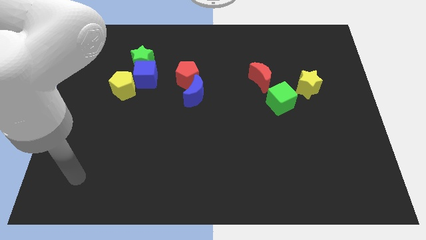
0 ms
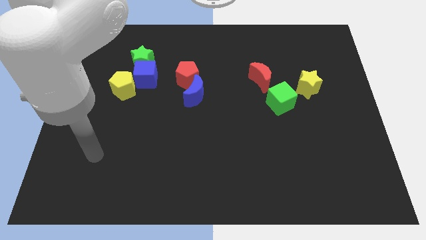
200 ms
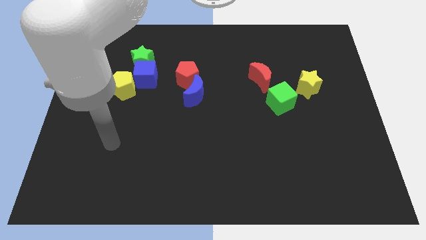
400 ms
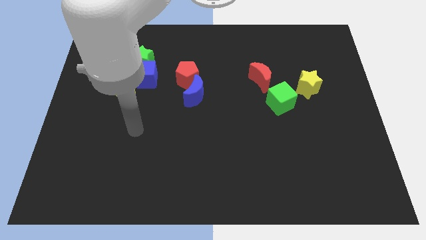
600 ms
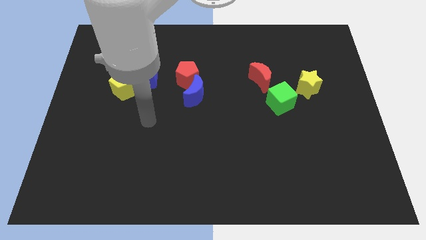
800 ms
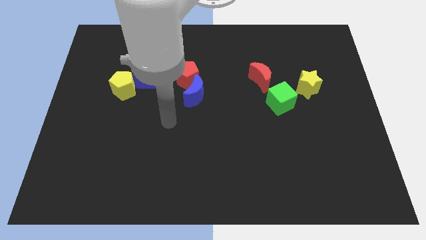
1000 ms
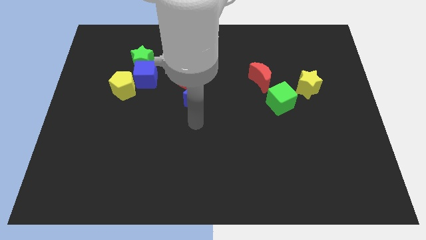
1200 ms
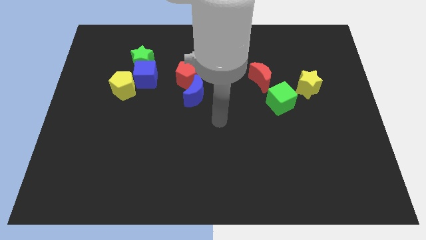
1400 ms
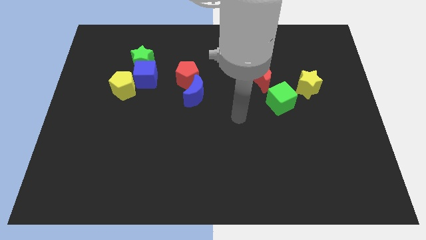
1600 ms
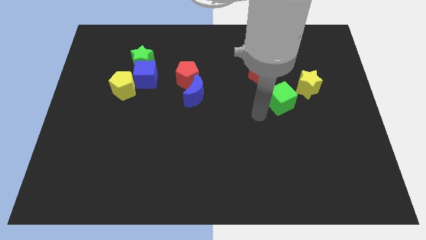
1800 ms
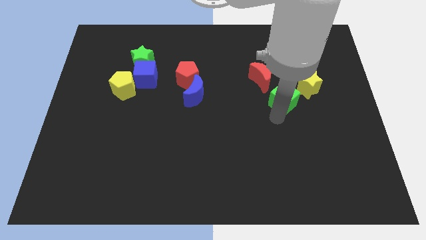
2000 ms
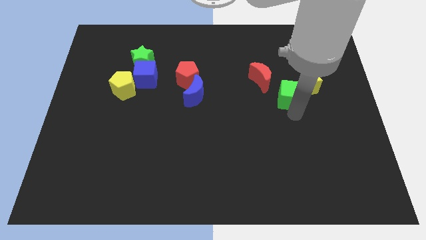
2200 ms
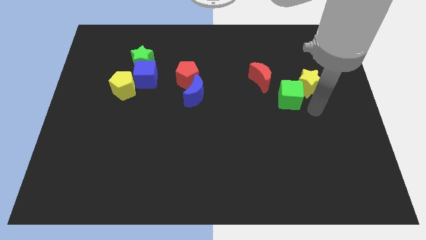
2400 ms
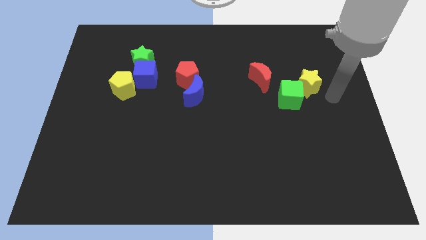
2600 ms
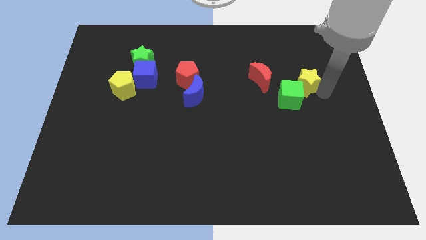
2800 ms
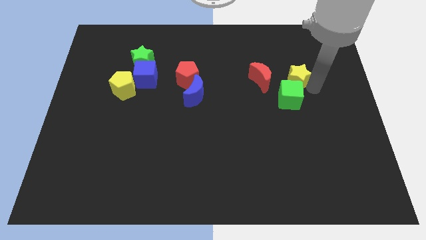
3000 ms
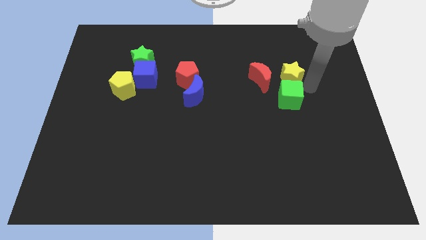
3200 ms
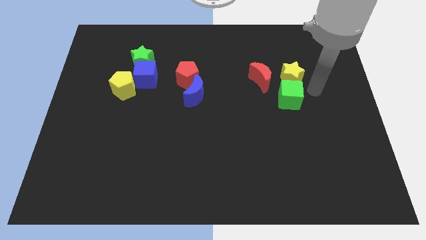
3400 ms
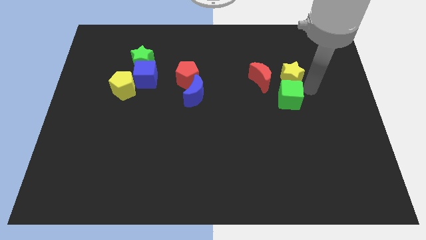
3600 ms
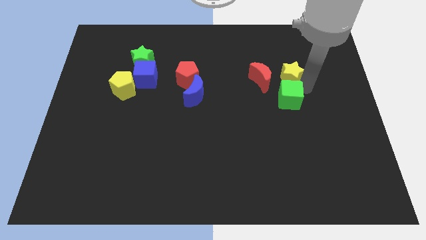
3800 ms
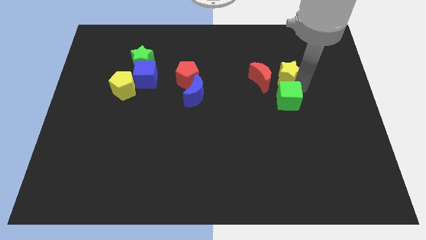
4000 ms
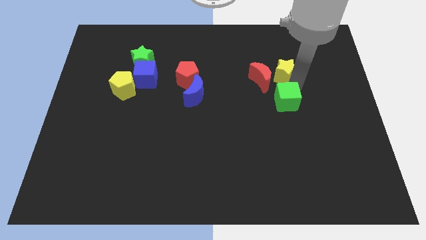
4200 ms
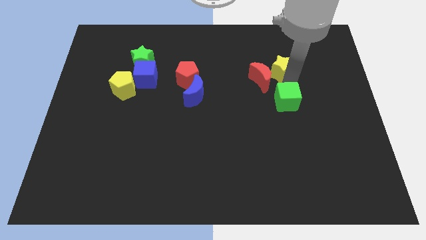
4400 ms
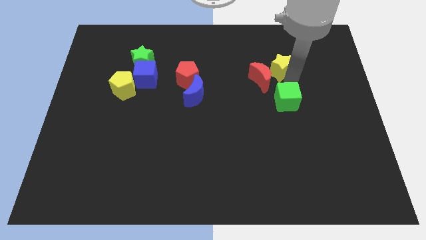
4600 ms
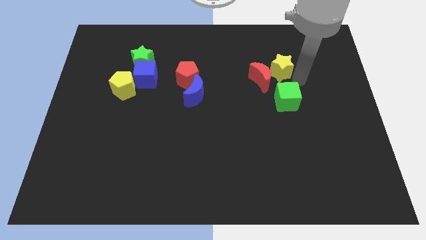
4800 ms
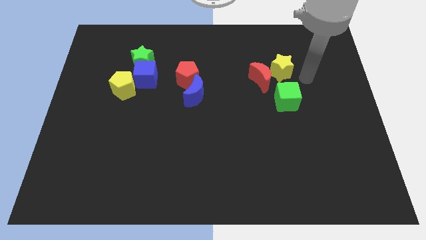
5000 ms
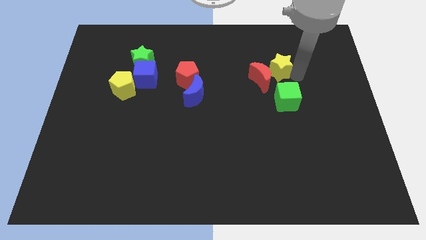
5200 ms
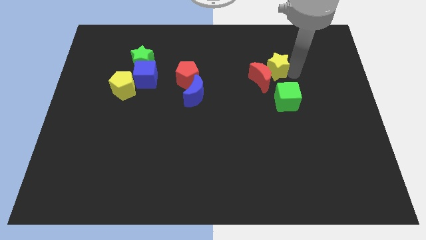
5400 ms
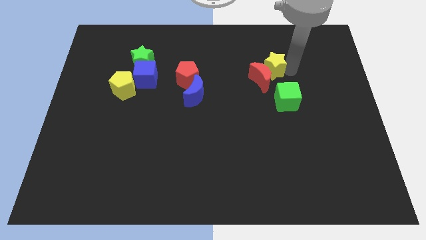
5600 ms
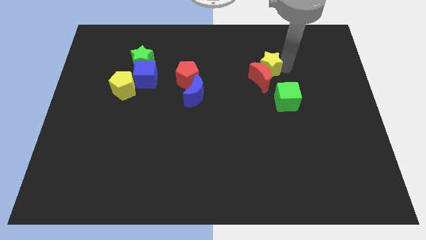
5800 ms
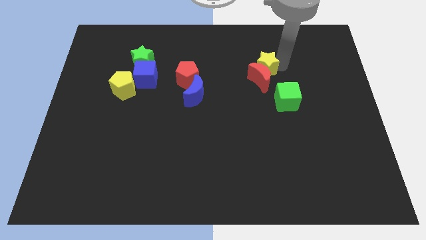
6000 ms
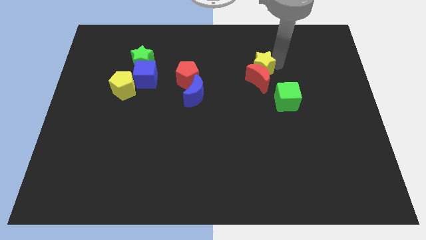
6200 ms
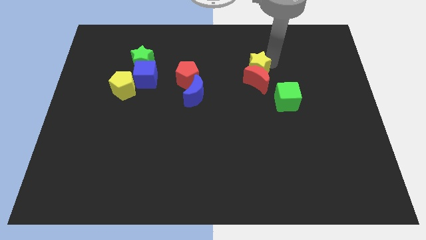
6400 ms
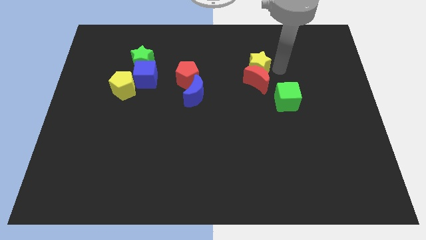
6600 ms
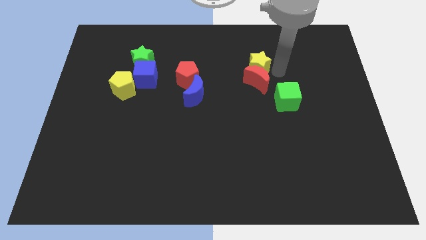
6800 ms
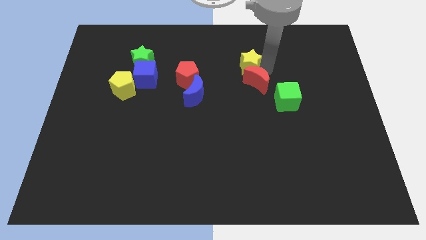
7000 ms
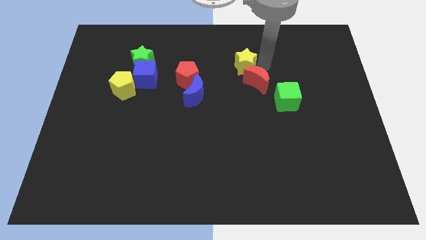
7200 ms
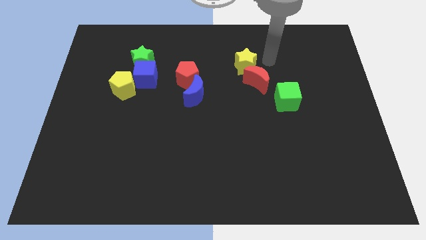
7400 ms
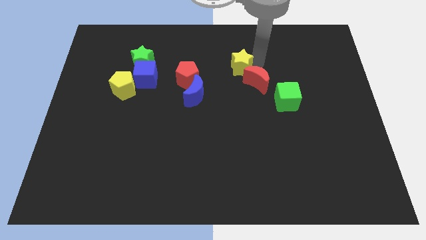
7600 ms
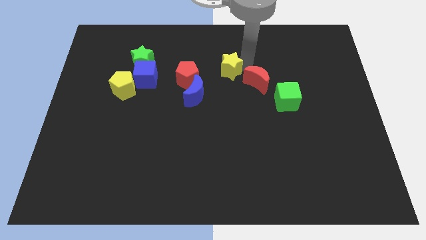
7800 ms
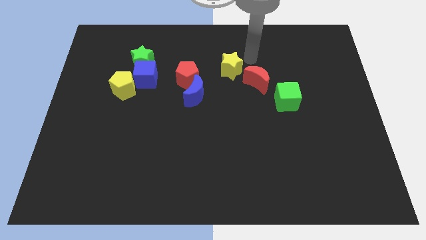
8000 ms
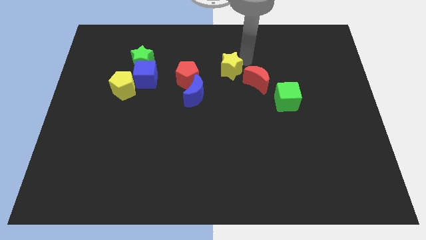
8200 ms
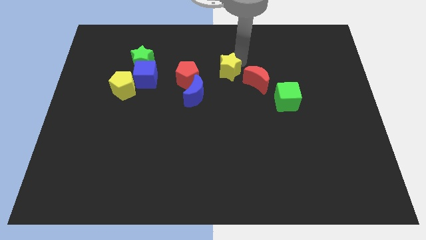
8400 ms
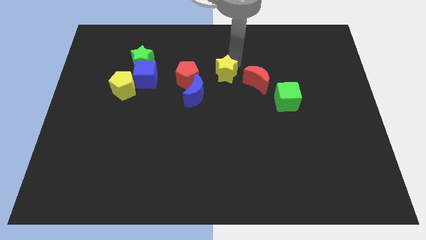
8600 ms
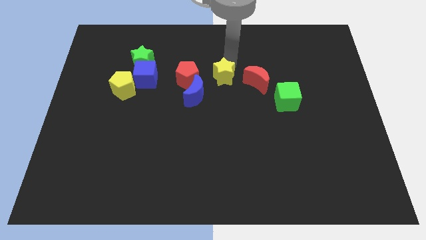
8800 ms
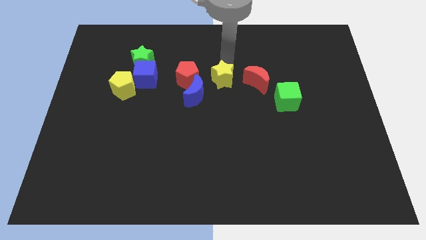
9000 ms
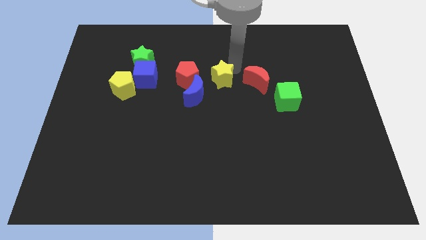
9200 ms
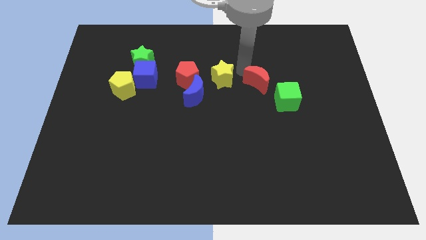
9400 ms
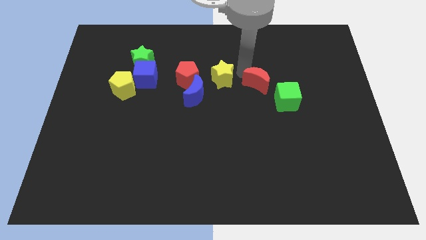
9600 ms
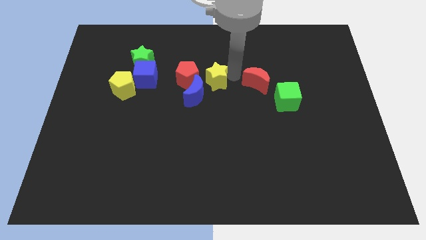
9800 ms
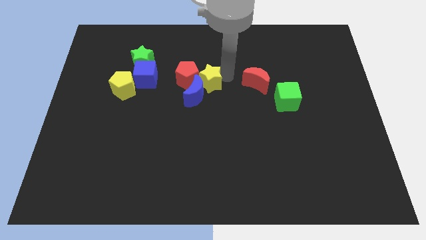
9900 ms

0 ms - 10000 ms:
slide the yellow star to the blue moon

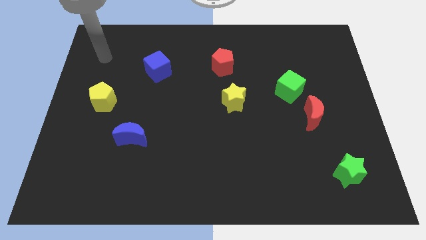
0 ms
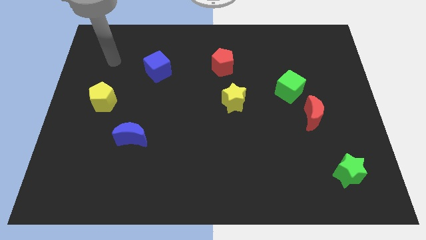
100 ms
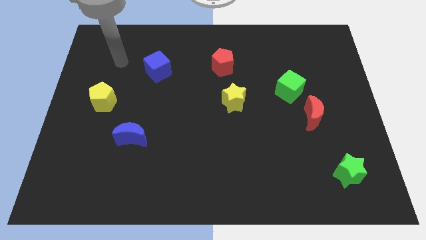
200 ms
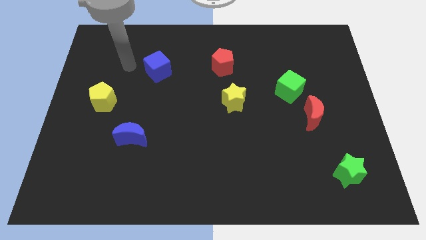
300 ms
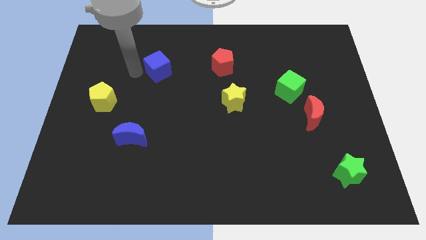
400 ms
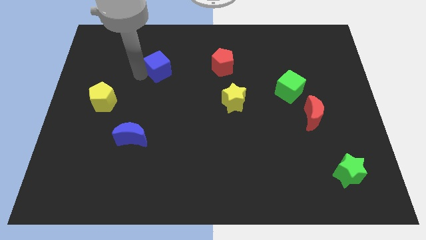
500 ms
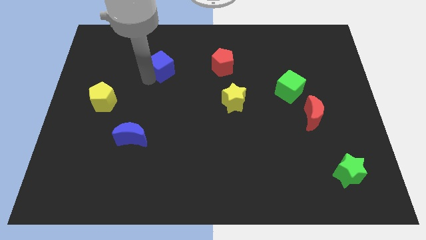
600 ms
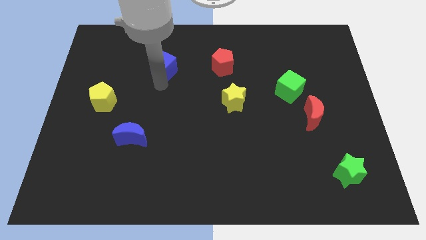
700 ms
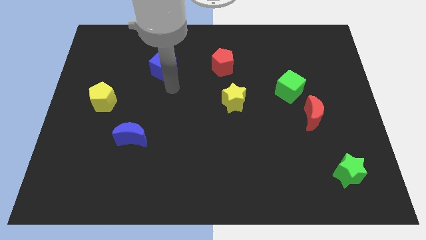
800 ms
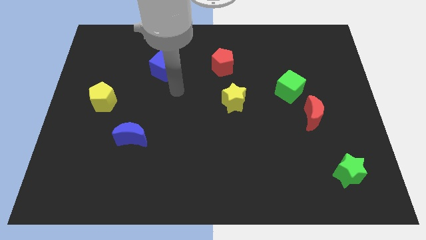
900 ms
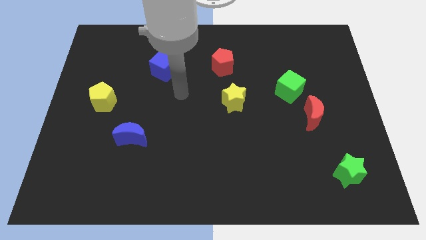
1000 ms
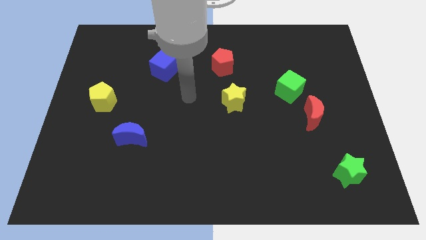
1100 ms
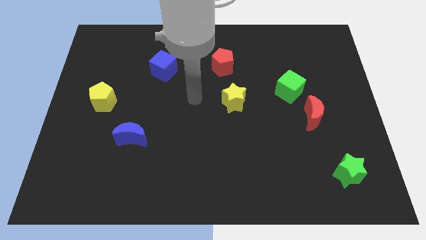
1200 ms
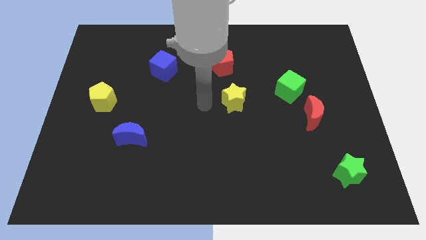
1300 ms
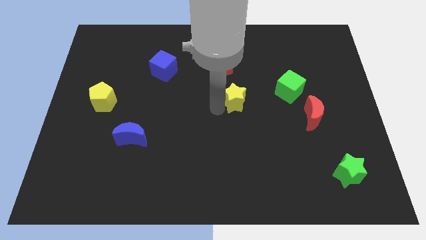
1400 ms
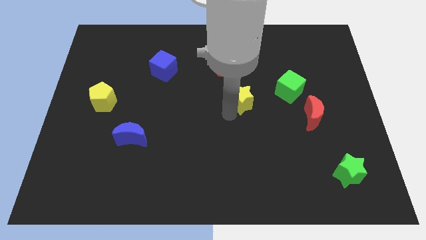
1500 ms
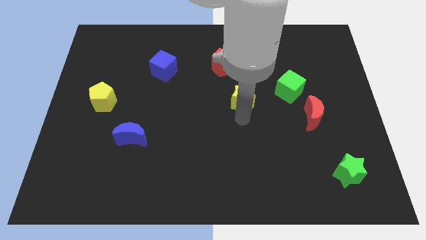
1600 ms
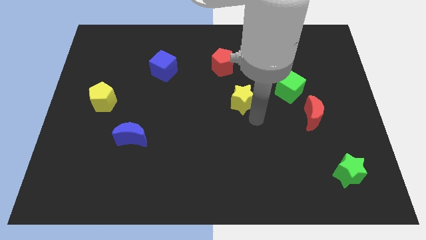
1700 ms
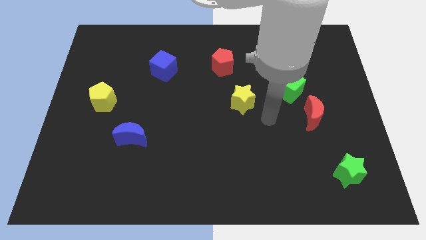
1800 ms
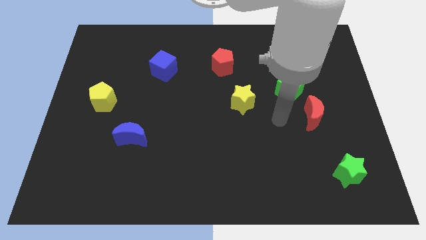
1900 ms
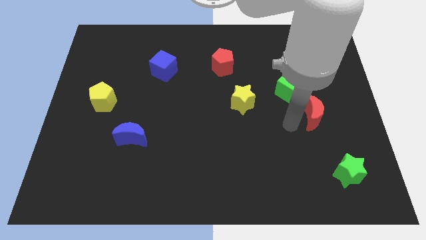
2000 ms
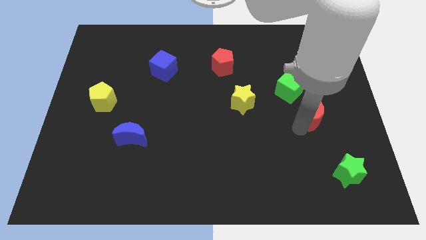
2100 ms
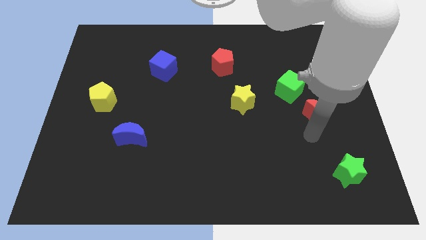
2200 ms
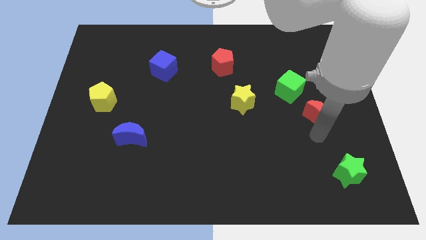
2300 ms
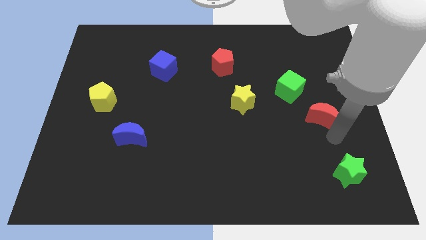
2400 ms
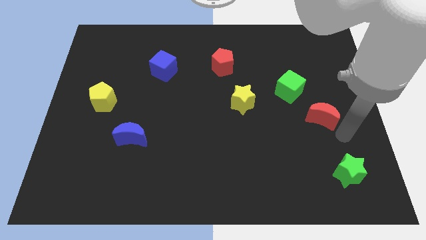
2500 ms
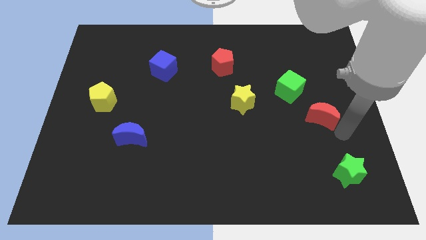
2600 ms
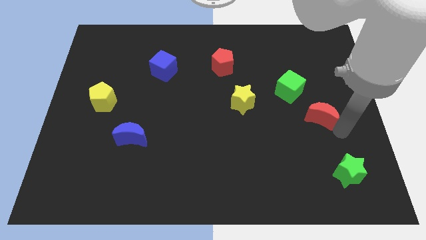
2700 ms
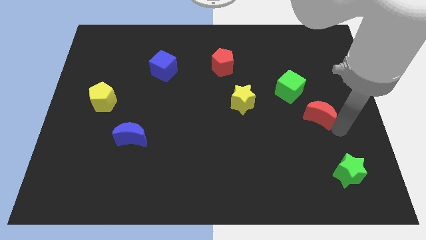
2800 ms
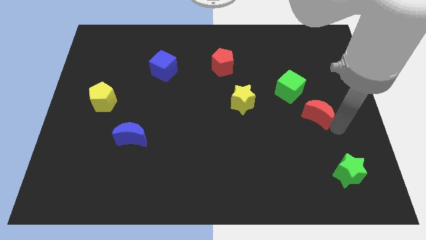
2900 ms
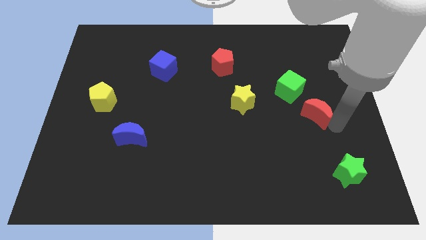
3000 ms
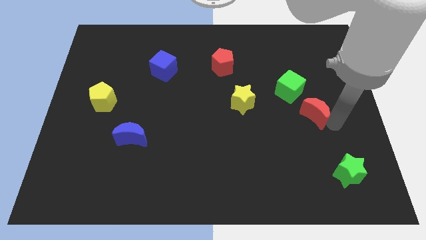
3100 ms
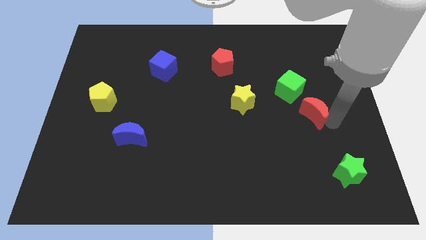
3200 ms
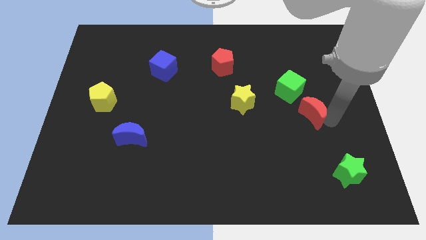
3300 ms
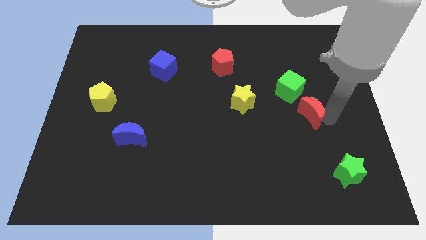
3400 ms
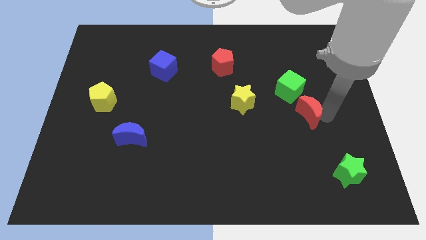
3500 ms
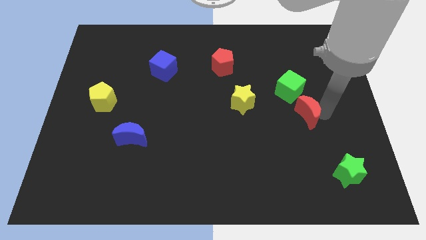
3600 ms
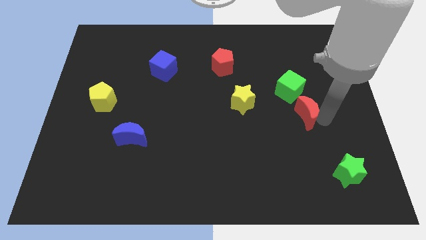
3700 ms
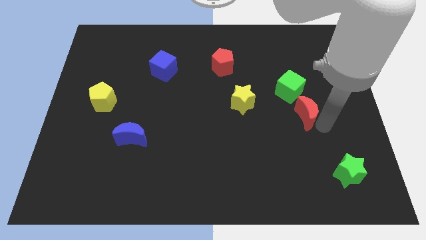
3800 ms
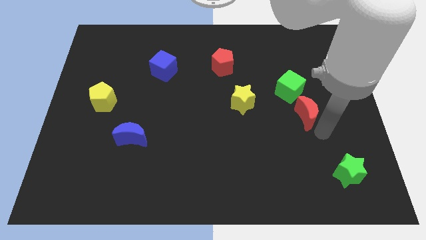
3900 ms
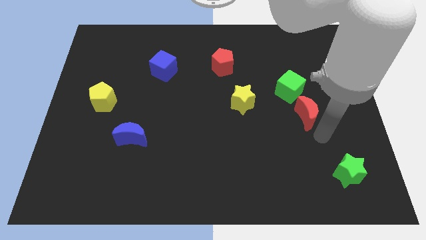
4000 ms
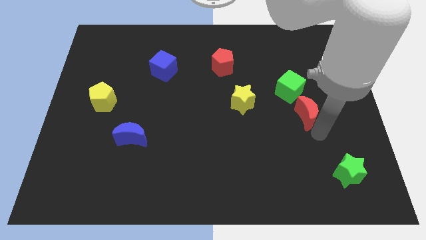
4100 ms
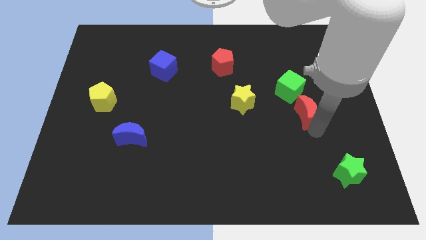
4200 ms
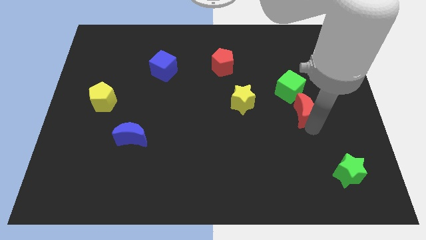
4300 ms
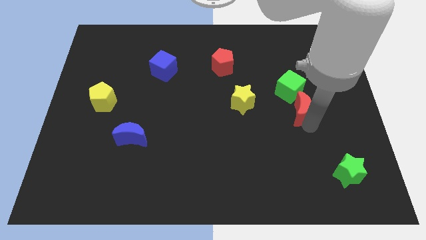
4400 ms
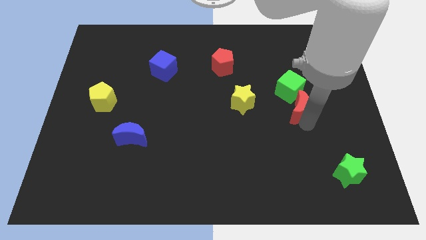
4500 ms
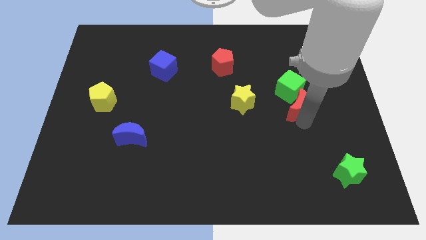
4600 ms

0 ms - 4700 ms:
move the red moon towards the green cube
